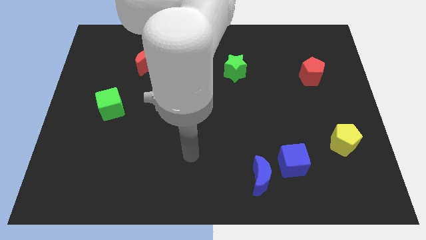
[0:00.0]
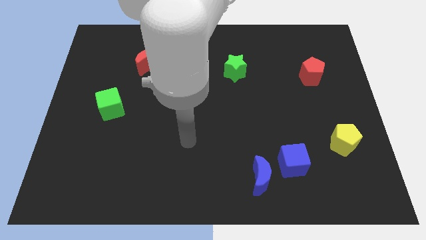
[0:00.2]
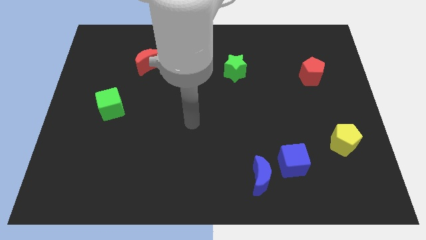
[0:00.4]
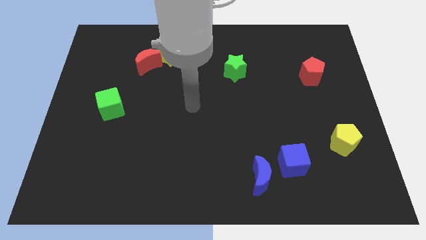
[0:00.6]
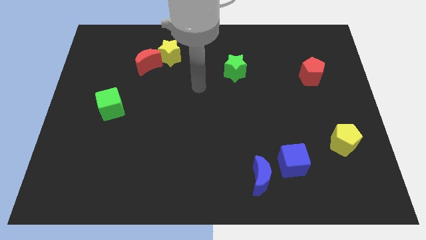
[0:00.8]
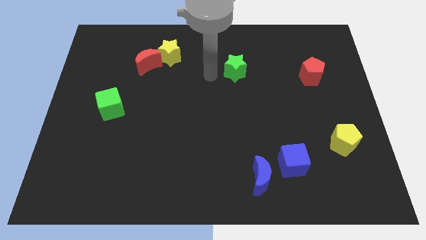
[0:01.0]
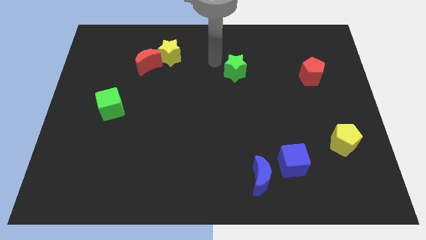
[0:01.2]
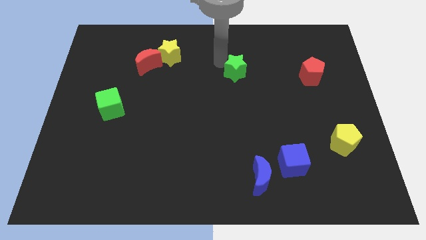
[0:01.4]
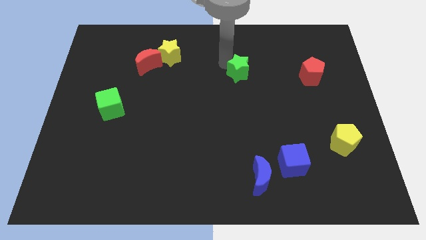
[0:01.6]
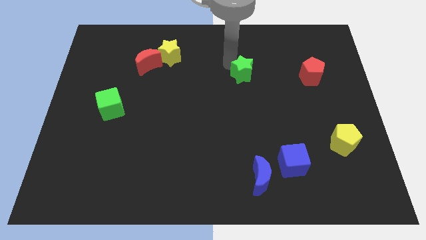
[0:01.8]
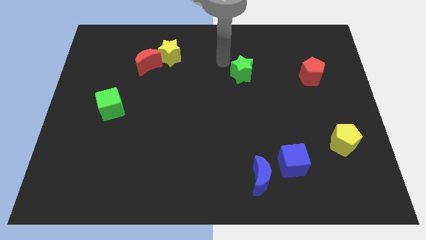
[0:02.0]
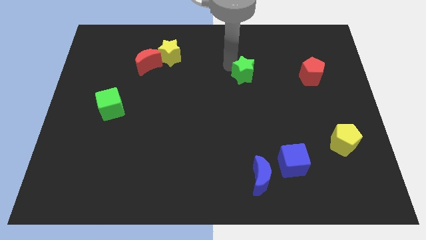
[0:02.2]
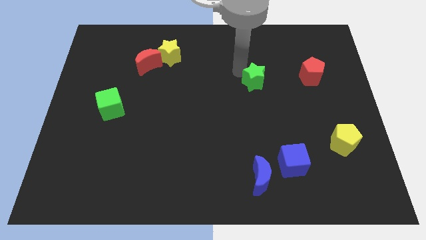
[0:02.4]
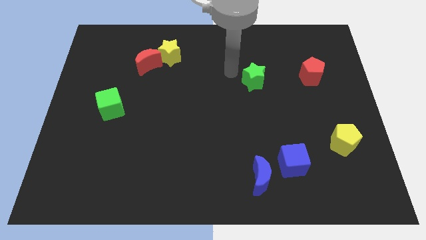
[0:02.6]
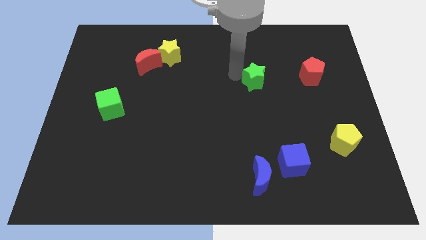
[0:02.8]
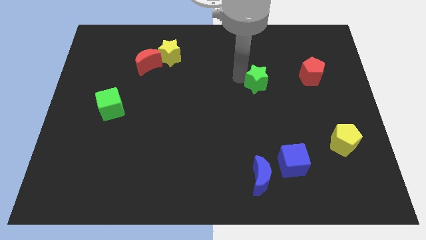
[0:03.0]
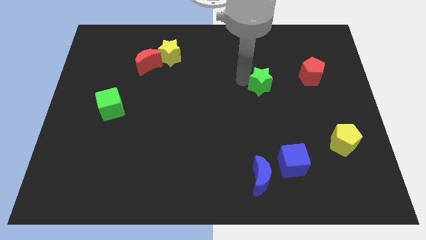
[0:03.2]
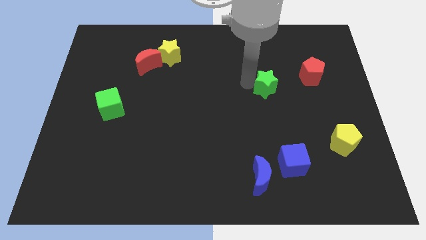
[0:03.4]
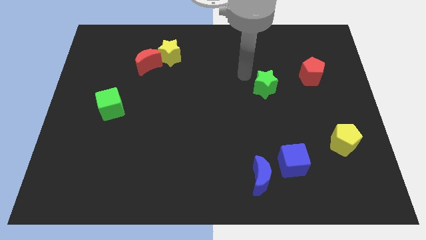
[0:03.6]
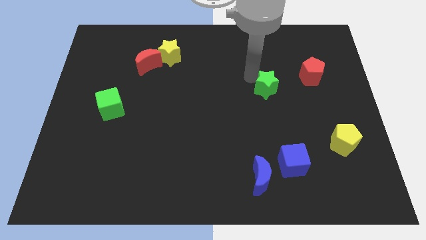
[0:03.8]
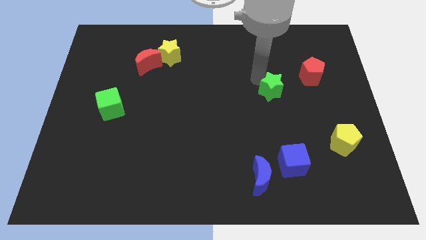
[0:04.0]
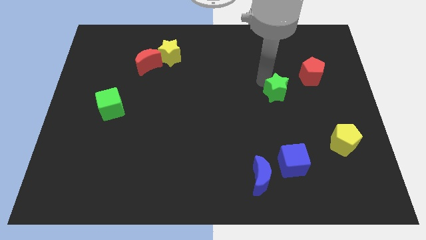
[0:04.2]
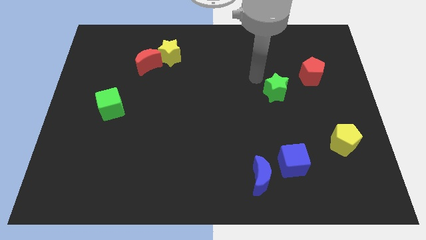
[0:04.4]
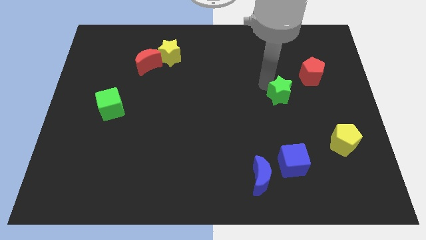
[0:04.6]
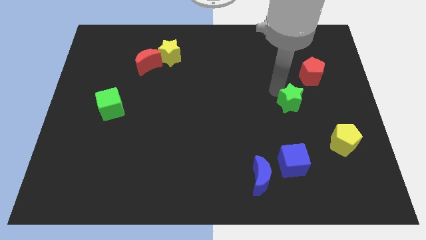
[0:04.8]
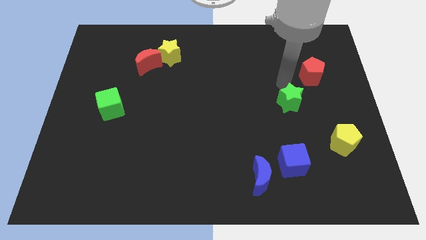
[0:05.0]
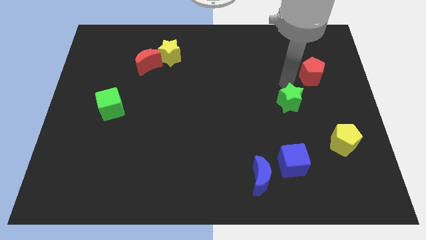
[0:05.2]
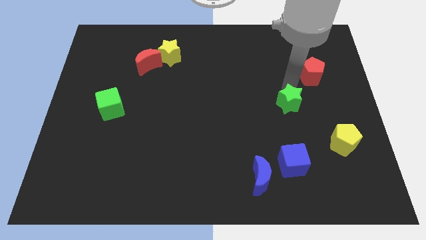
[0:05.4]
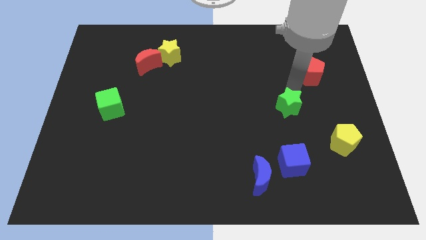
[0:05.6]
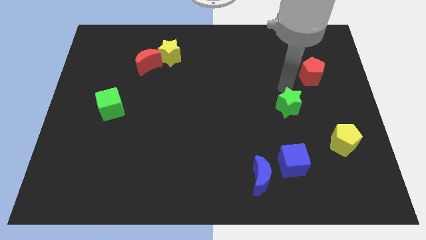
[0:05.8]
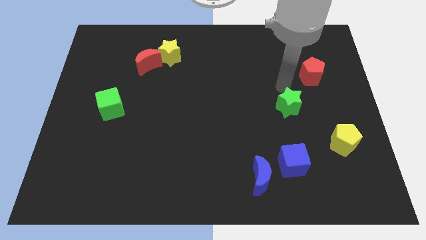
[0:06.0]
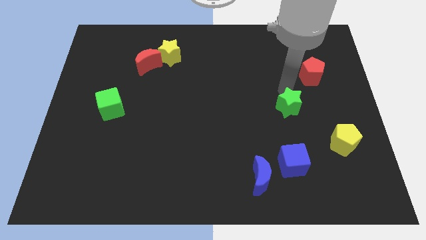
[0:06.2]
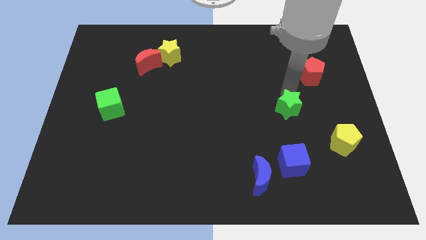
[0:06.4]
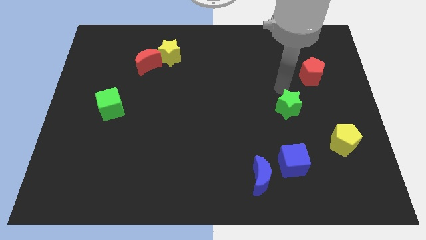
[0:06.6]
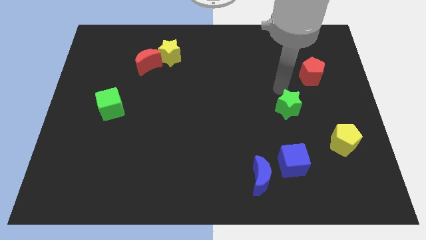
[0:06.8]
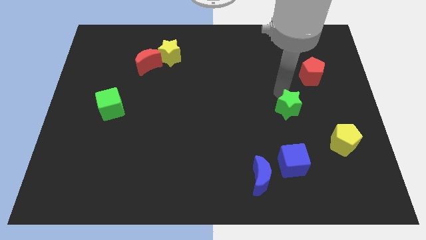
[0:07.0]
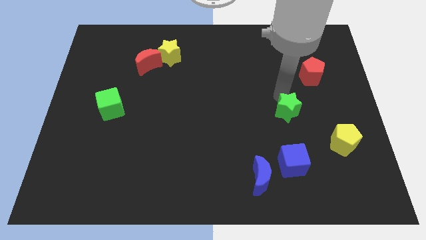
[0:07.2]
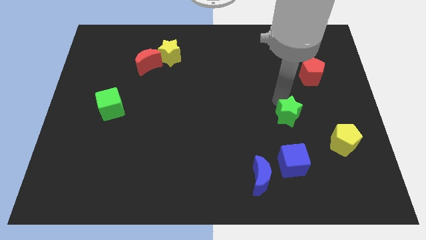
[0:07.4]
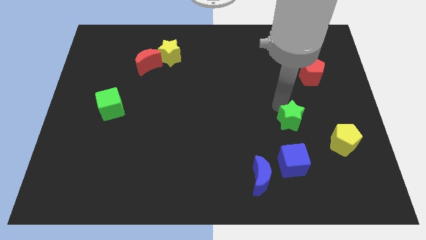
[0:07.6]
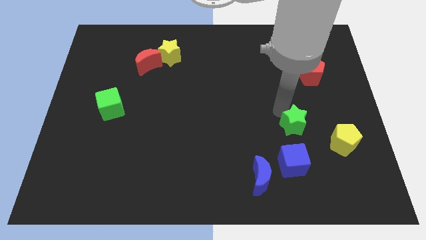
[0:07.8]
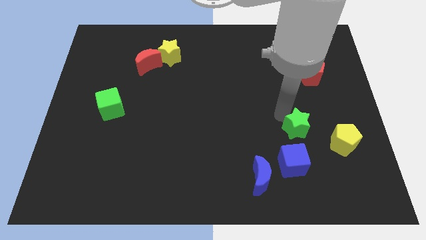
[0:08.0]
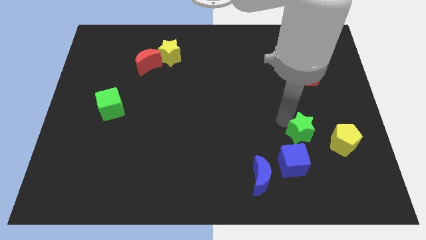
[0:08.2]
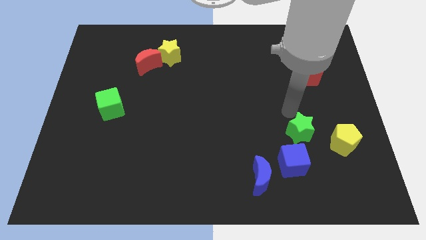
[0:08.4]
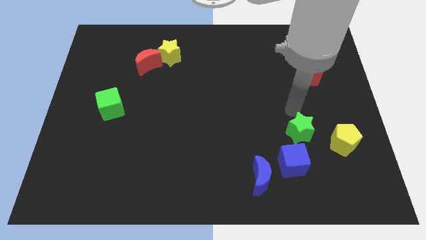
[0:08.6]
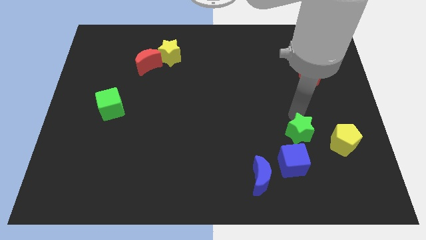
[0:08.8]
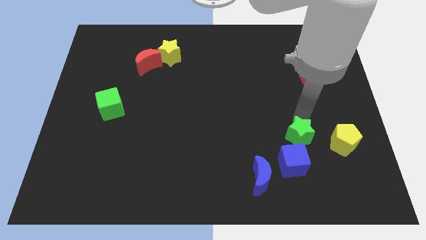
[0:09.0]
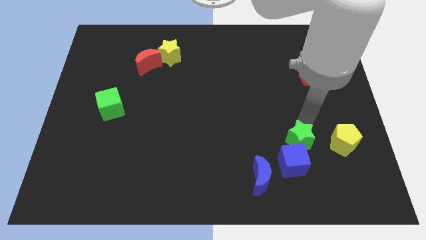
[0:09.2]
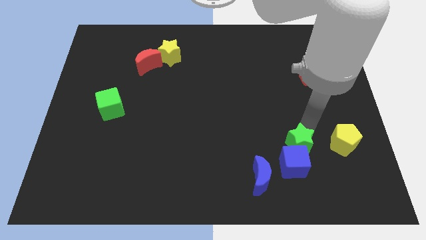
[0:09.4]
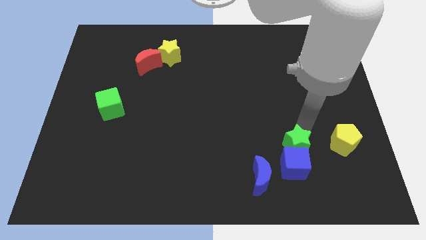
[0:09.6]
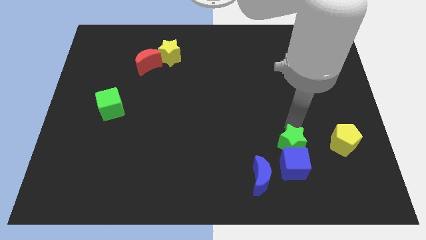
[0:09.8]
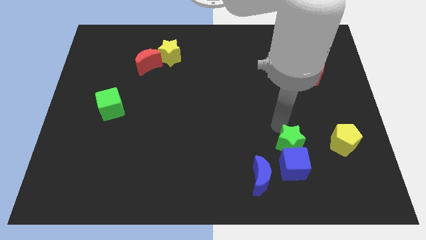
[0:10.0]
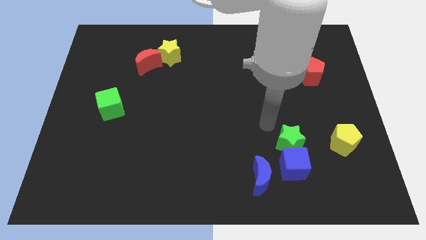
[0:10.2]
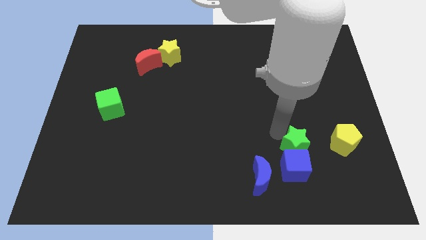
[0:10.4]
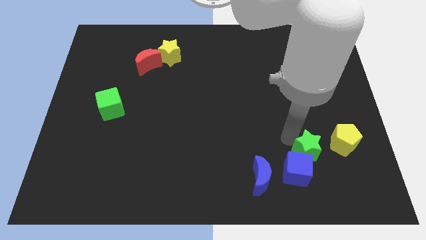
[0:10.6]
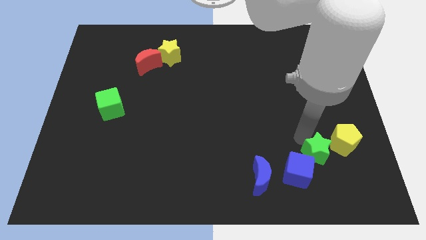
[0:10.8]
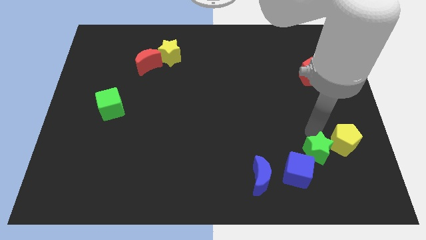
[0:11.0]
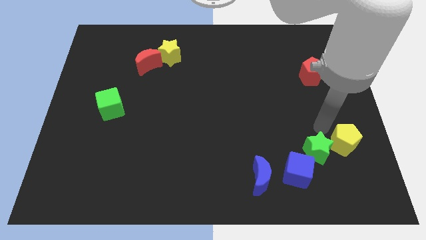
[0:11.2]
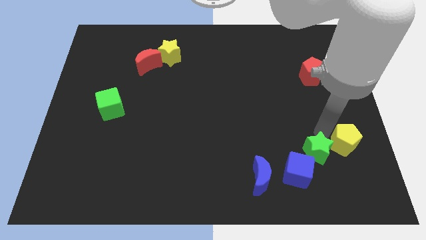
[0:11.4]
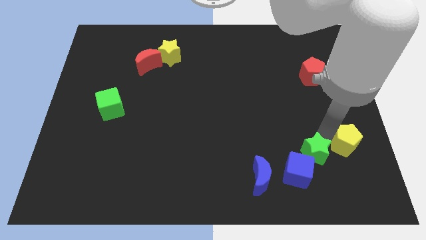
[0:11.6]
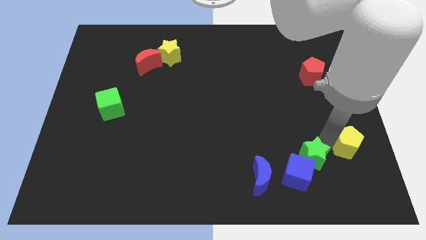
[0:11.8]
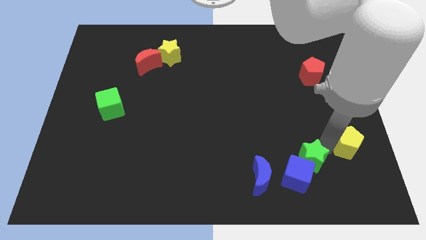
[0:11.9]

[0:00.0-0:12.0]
move the green star right of the blue moon

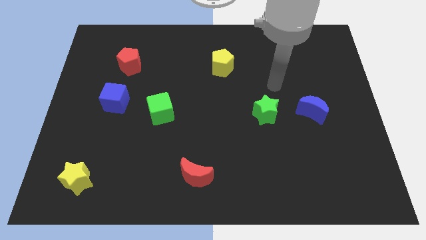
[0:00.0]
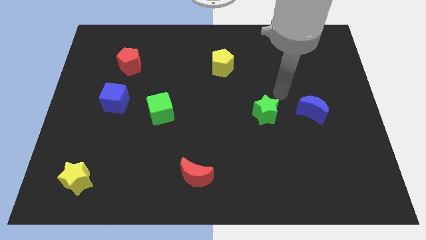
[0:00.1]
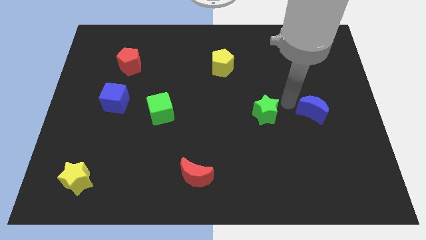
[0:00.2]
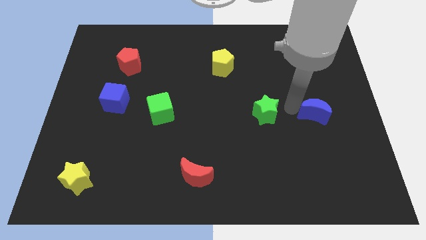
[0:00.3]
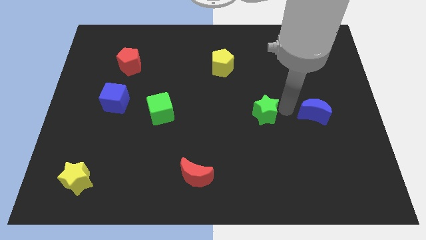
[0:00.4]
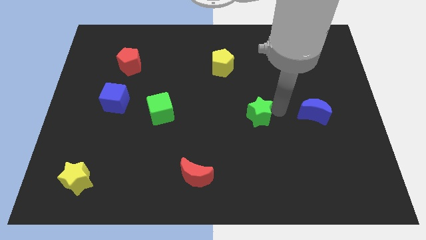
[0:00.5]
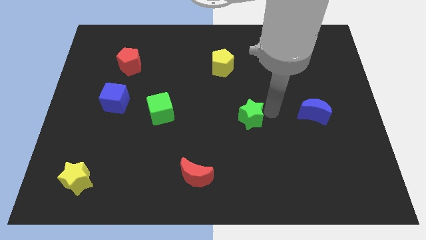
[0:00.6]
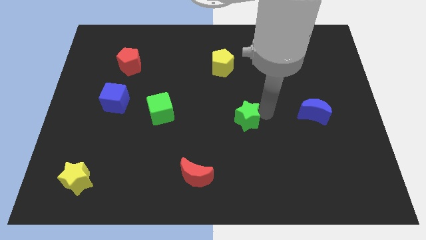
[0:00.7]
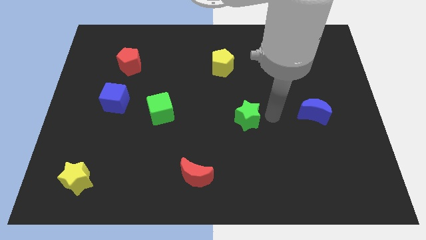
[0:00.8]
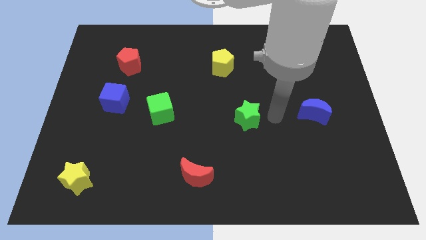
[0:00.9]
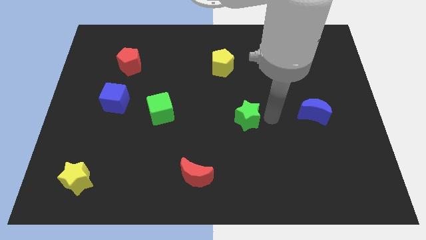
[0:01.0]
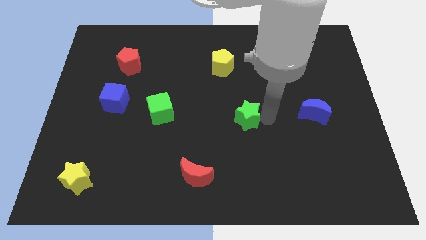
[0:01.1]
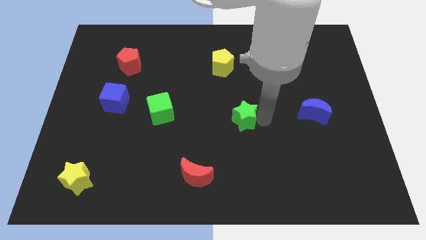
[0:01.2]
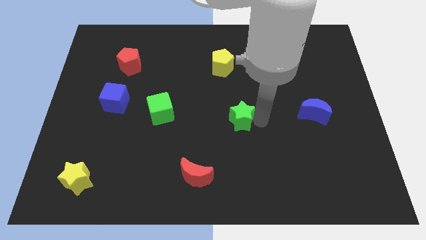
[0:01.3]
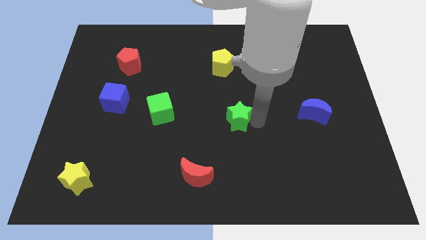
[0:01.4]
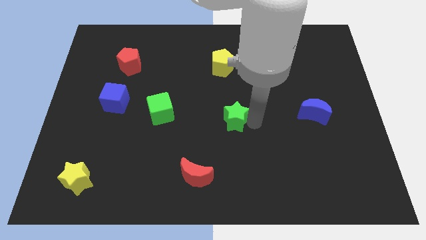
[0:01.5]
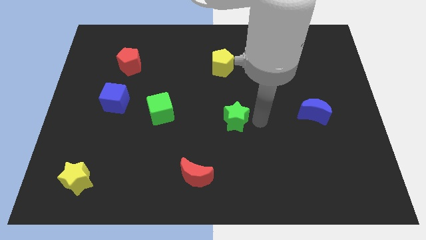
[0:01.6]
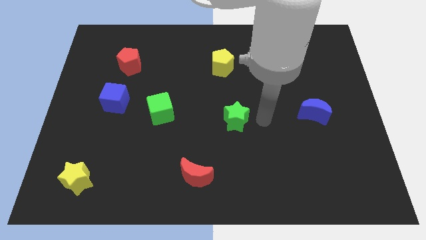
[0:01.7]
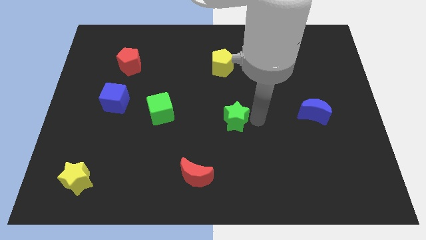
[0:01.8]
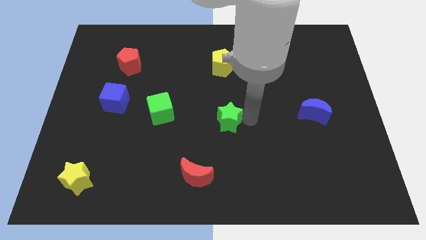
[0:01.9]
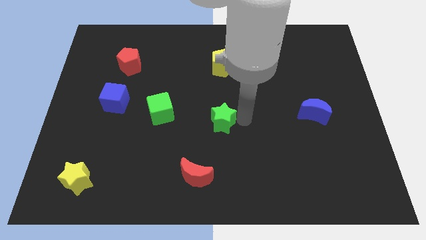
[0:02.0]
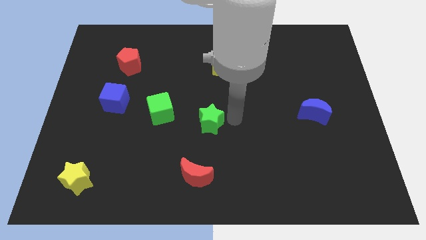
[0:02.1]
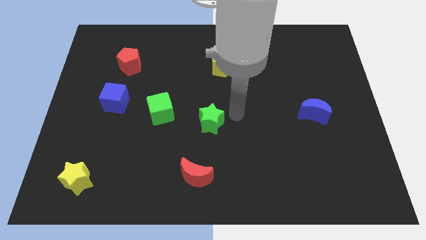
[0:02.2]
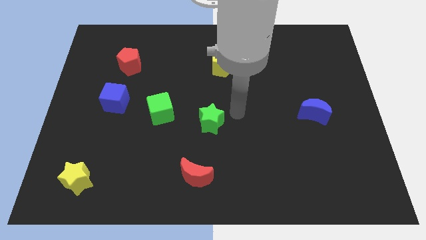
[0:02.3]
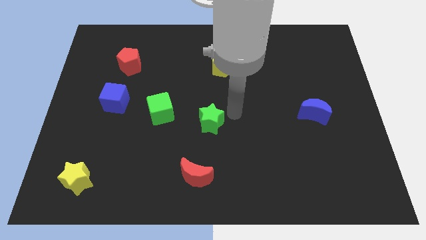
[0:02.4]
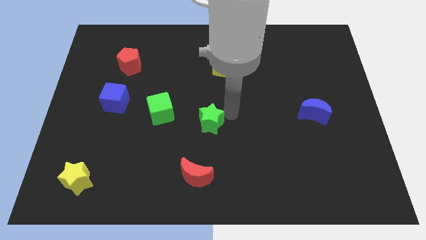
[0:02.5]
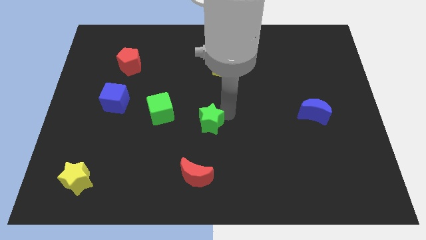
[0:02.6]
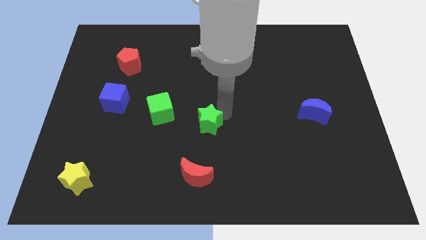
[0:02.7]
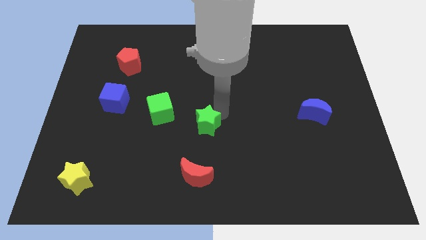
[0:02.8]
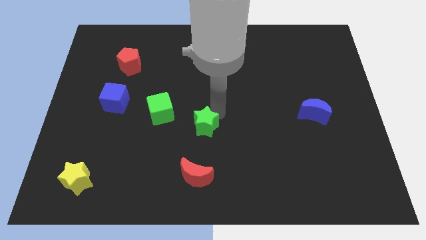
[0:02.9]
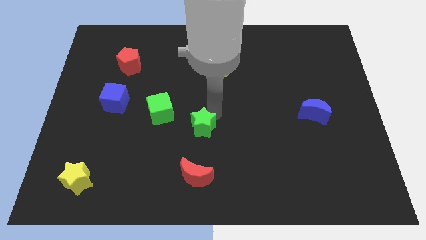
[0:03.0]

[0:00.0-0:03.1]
slide the green star to the bottom right side of the green cube
